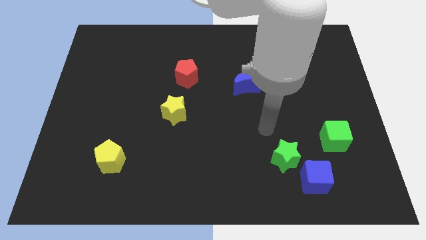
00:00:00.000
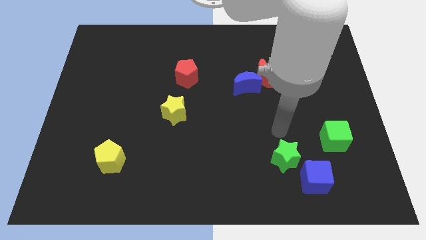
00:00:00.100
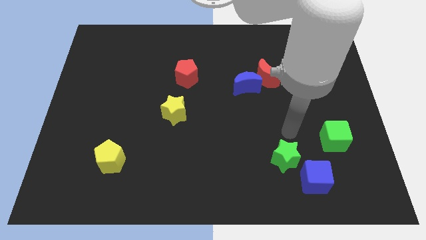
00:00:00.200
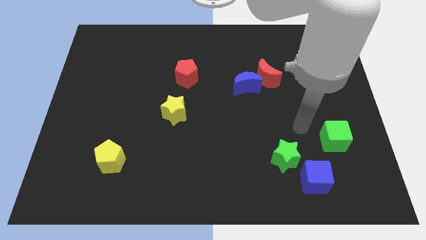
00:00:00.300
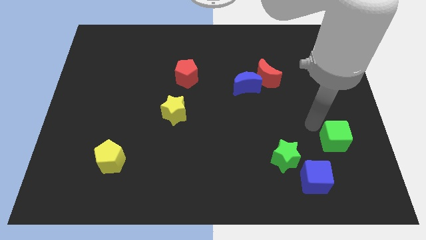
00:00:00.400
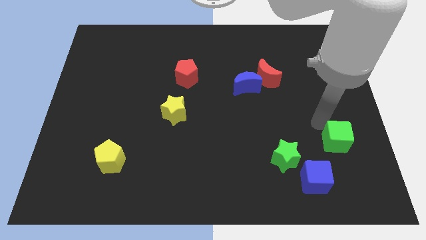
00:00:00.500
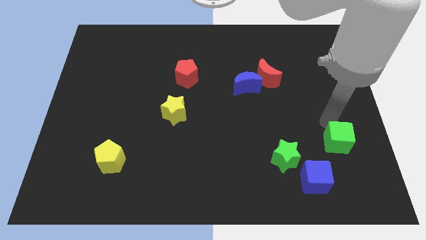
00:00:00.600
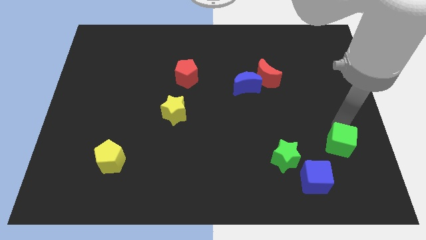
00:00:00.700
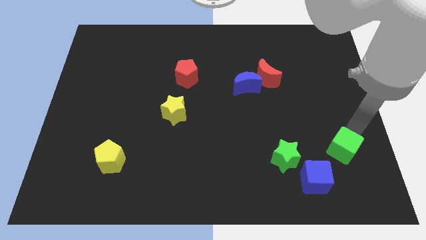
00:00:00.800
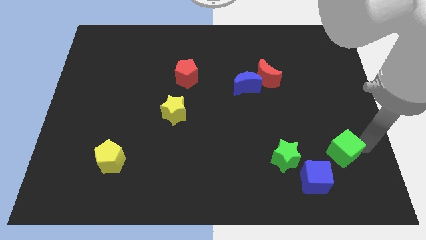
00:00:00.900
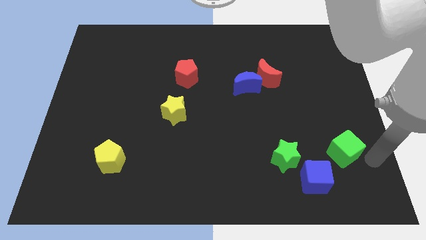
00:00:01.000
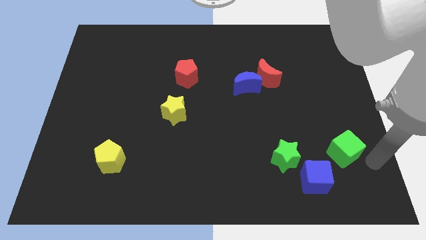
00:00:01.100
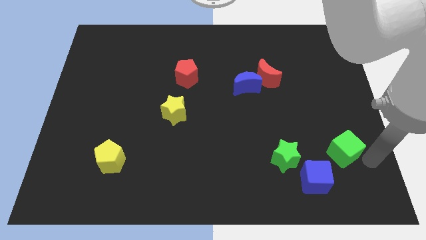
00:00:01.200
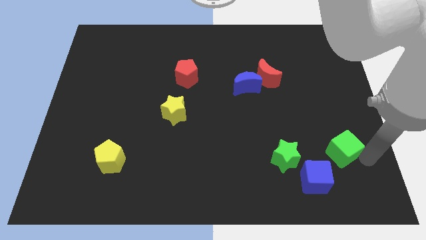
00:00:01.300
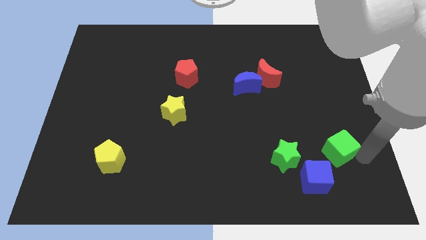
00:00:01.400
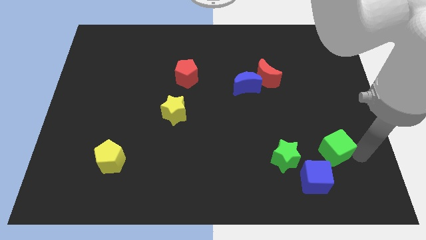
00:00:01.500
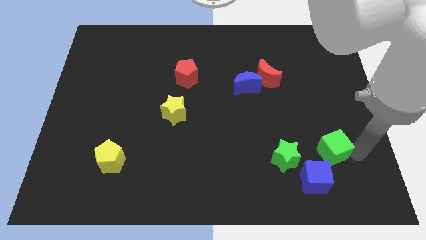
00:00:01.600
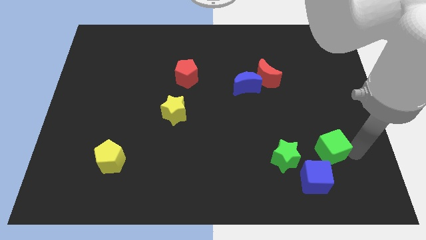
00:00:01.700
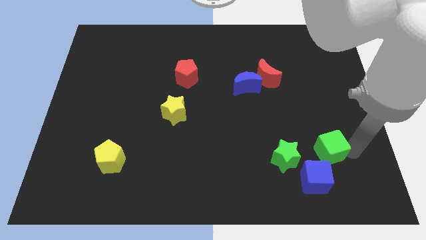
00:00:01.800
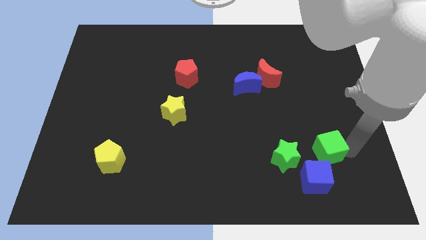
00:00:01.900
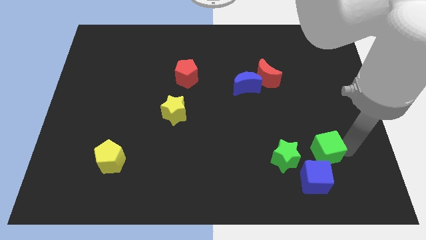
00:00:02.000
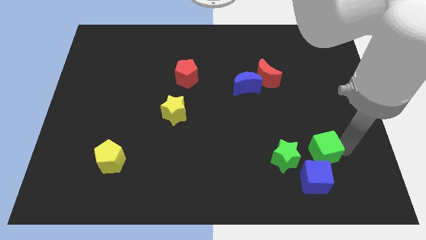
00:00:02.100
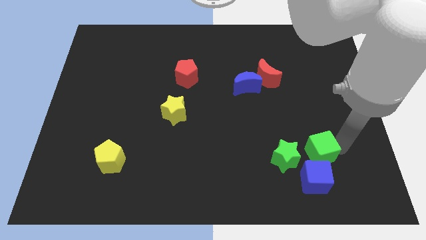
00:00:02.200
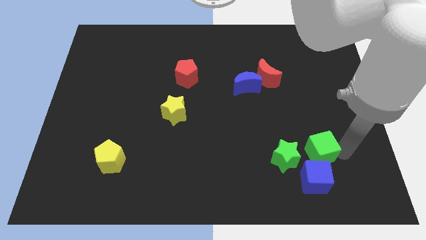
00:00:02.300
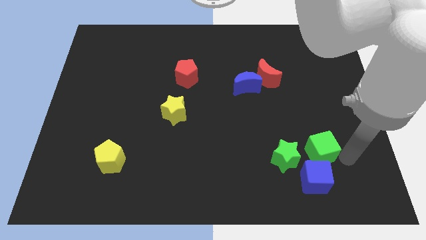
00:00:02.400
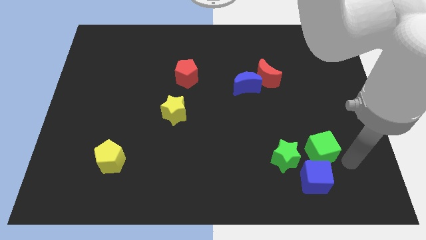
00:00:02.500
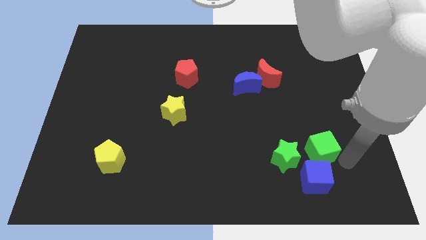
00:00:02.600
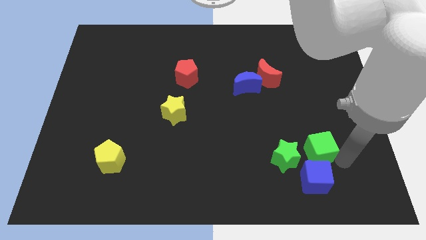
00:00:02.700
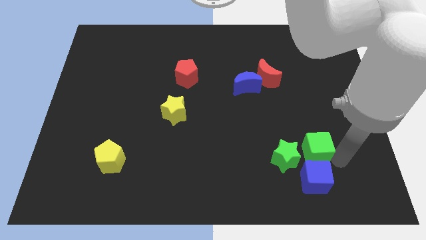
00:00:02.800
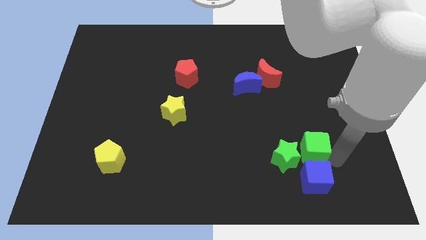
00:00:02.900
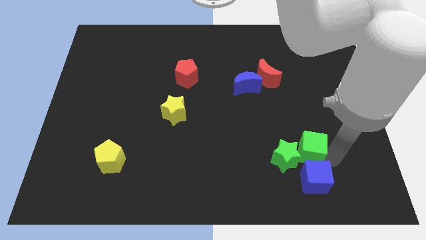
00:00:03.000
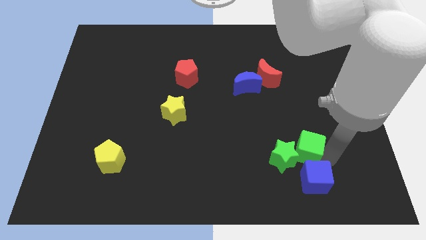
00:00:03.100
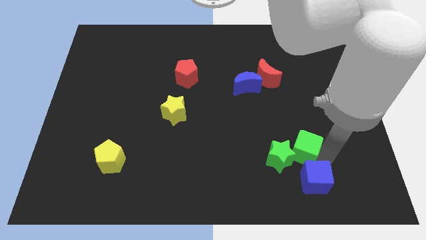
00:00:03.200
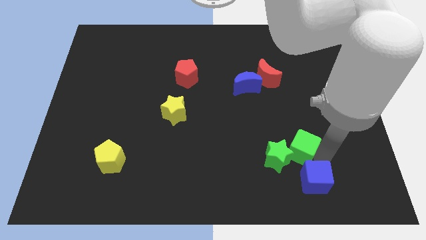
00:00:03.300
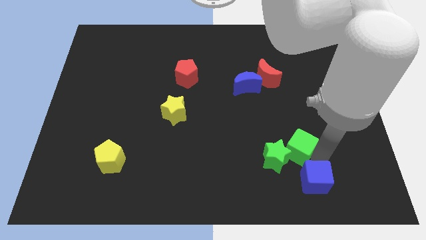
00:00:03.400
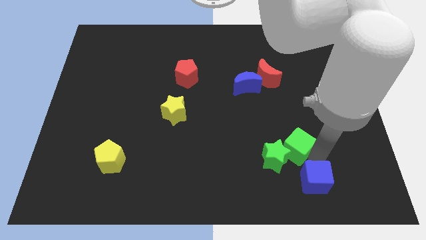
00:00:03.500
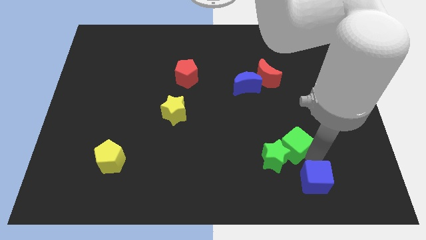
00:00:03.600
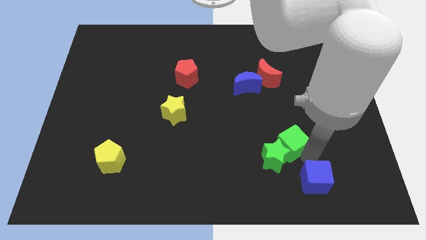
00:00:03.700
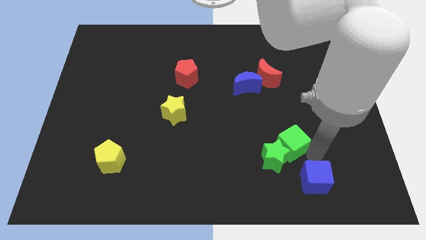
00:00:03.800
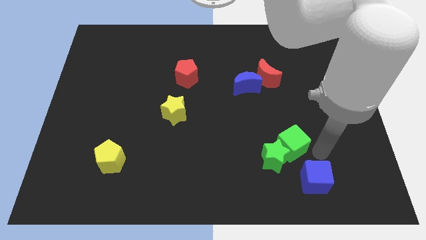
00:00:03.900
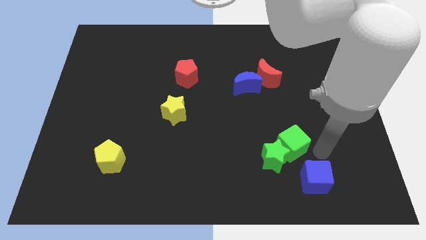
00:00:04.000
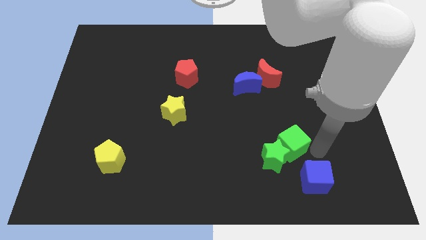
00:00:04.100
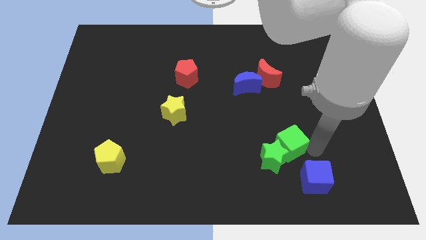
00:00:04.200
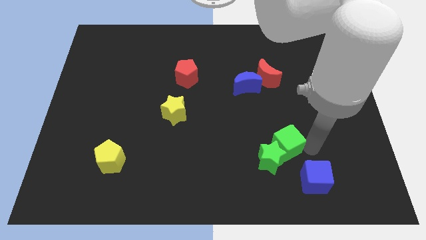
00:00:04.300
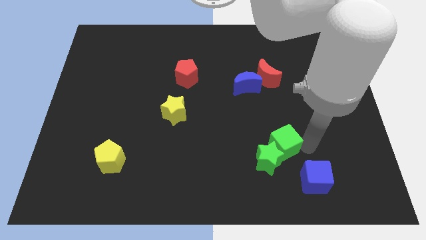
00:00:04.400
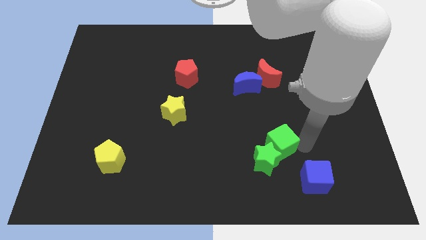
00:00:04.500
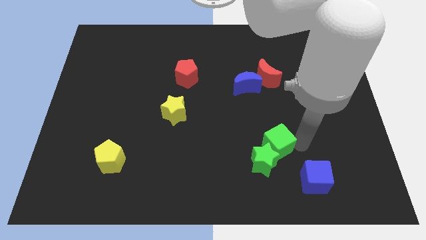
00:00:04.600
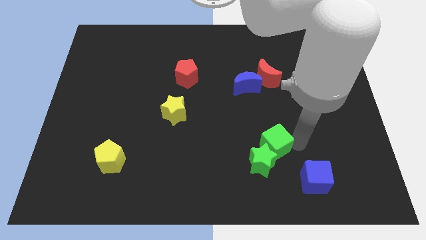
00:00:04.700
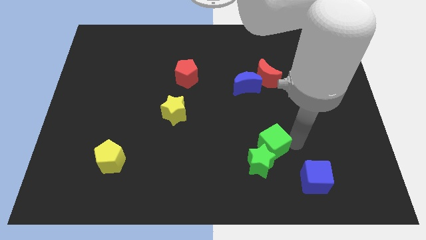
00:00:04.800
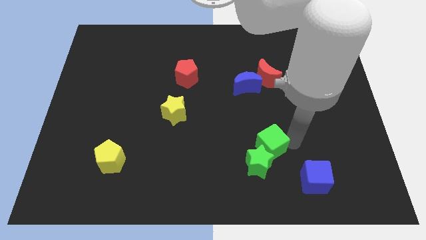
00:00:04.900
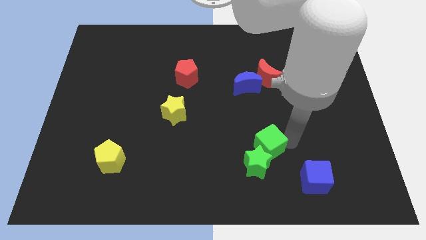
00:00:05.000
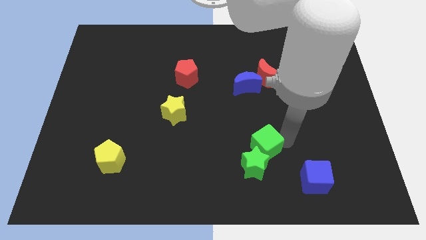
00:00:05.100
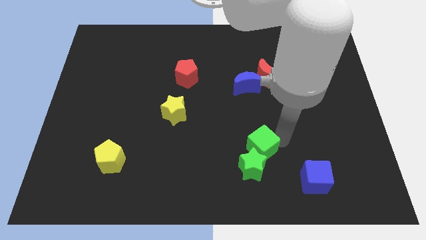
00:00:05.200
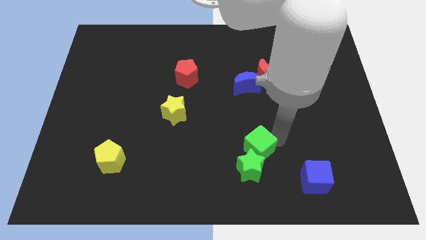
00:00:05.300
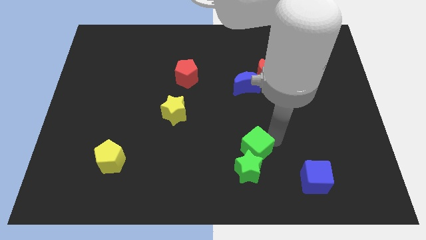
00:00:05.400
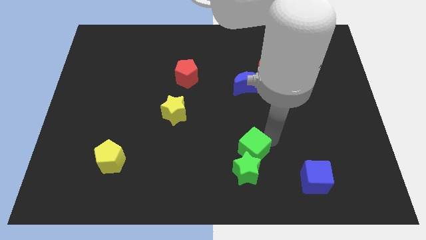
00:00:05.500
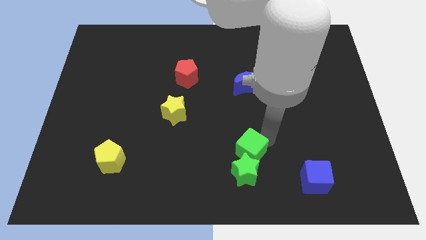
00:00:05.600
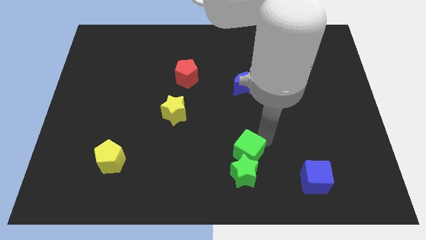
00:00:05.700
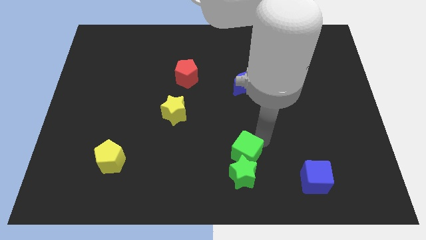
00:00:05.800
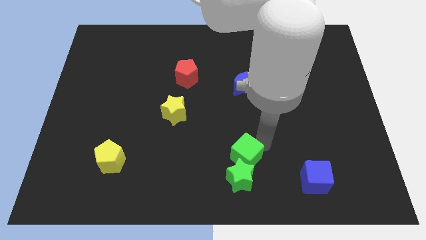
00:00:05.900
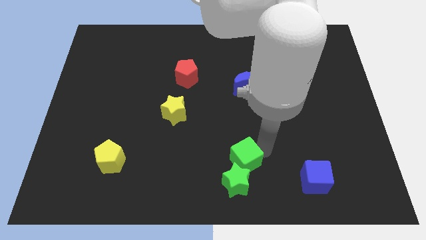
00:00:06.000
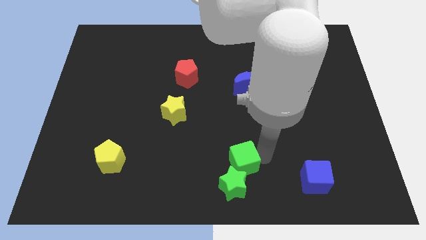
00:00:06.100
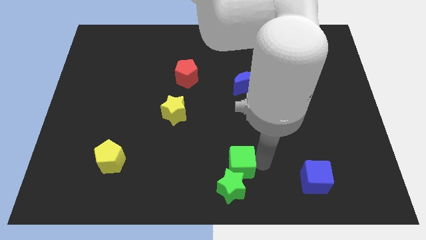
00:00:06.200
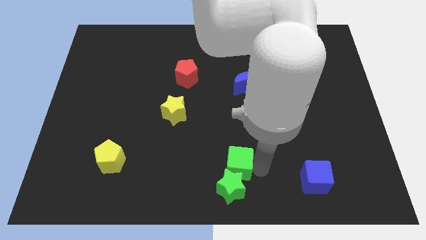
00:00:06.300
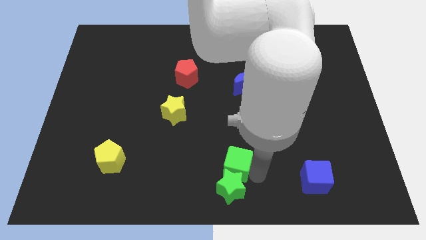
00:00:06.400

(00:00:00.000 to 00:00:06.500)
slide the green cube left

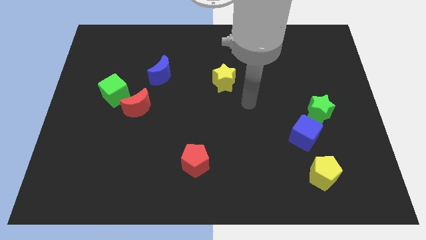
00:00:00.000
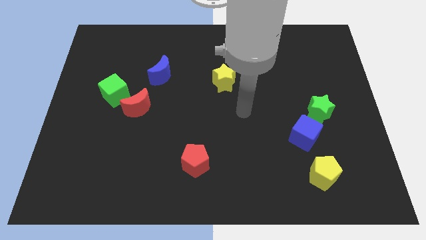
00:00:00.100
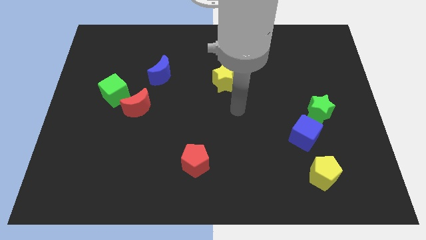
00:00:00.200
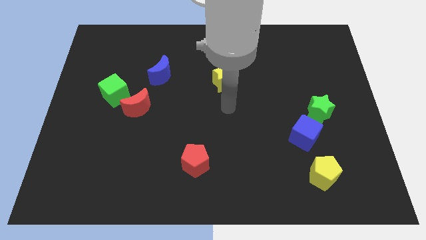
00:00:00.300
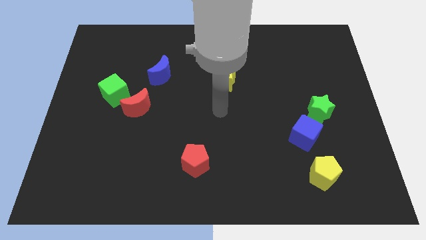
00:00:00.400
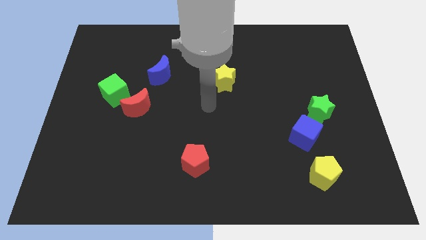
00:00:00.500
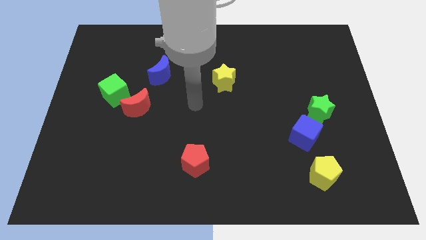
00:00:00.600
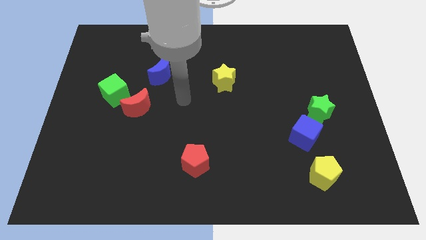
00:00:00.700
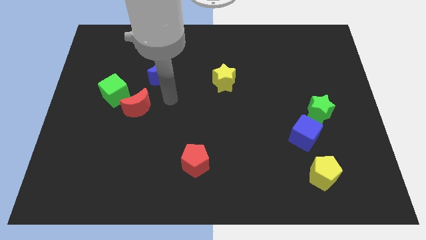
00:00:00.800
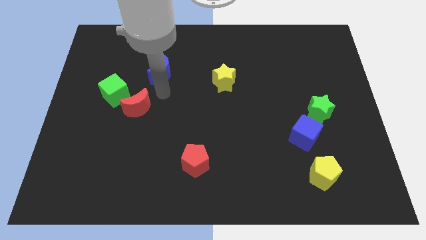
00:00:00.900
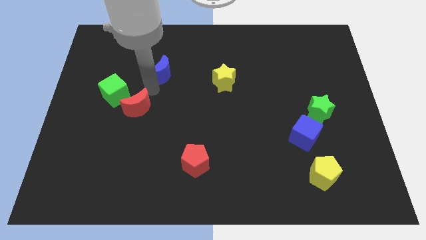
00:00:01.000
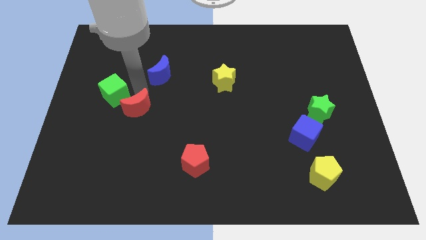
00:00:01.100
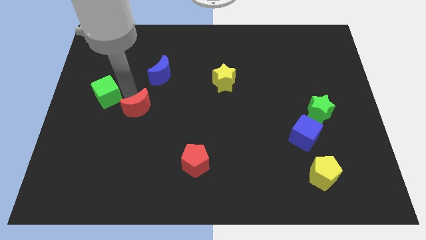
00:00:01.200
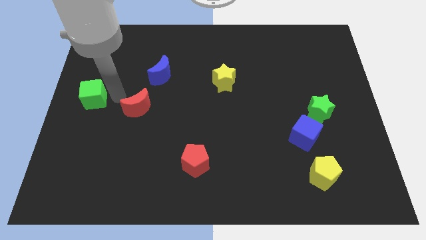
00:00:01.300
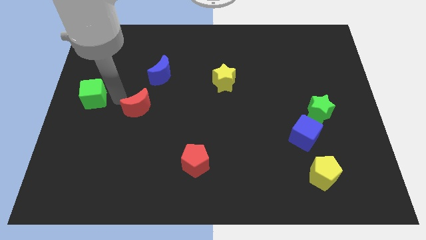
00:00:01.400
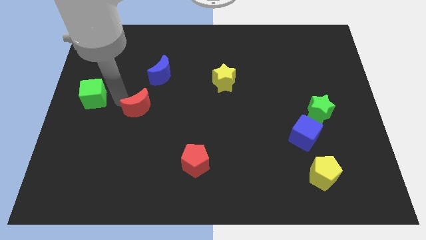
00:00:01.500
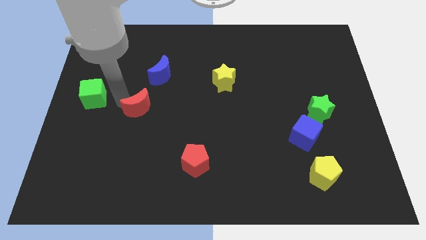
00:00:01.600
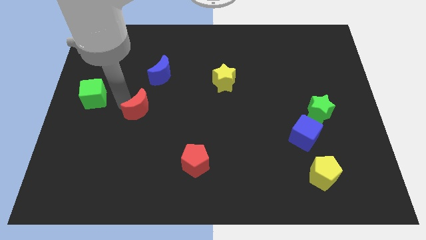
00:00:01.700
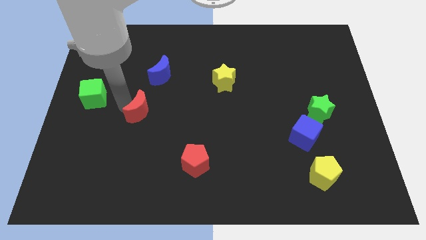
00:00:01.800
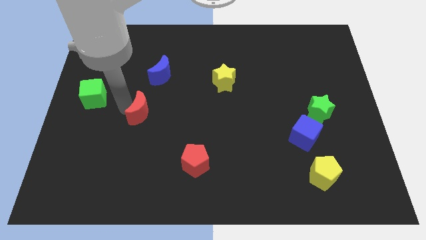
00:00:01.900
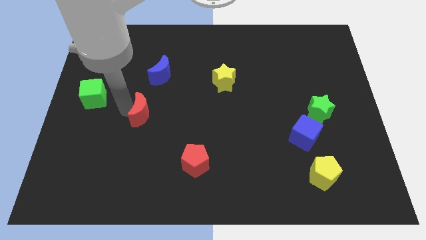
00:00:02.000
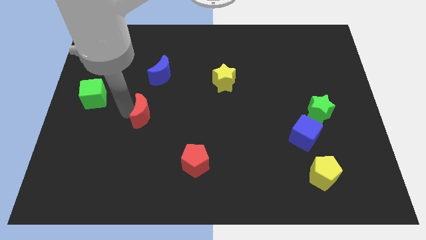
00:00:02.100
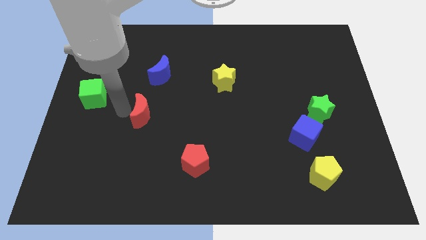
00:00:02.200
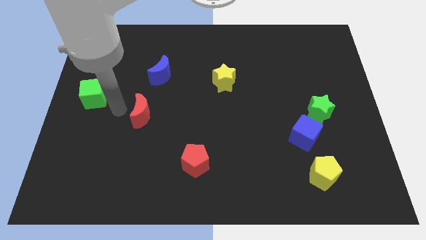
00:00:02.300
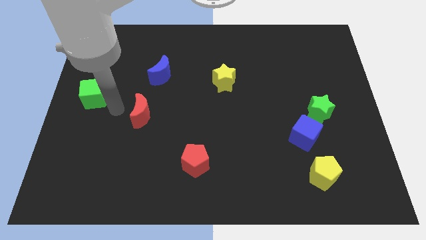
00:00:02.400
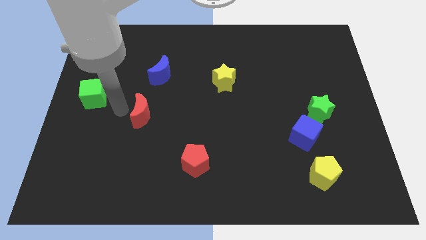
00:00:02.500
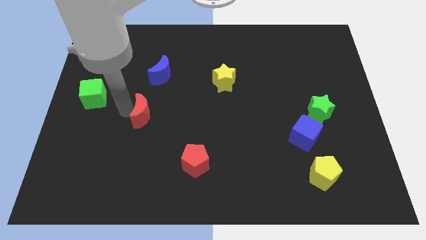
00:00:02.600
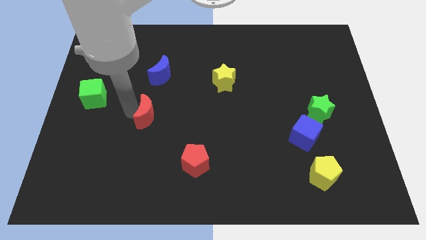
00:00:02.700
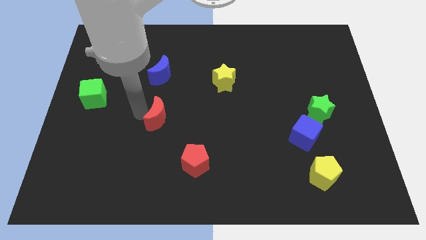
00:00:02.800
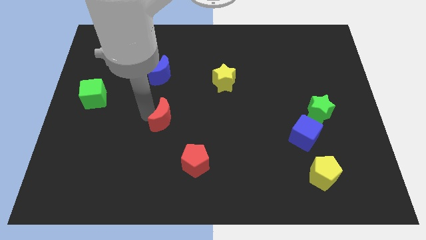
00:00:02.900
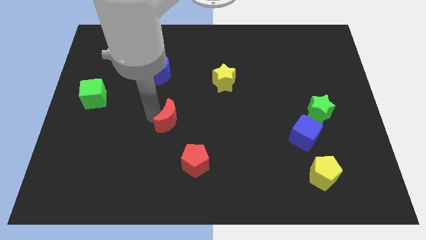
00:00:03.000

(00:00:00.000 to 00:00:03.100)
slightly move the red moon to the right
